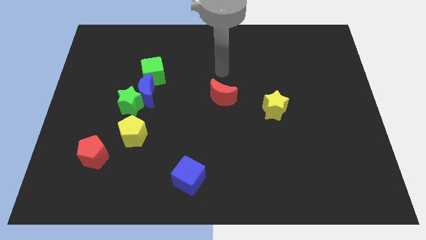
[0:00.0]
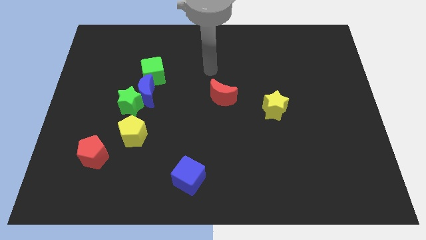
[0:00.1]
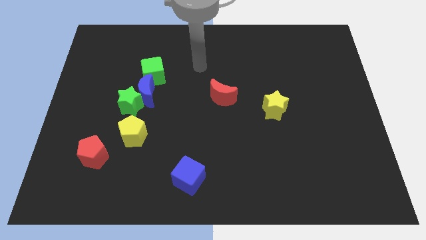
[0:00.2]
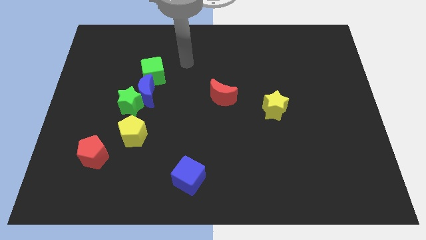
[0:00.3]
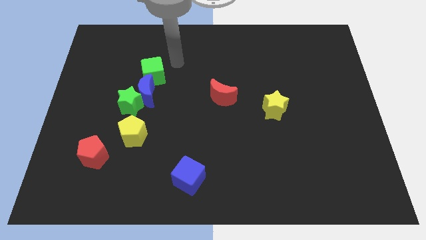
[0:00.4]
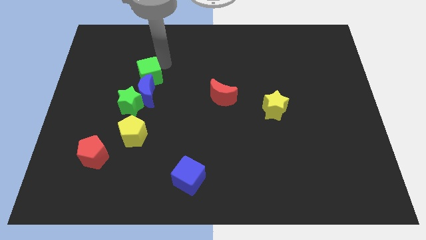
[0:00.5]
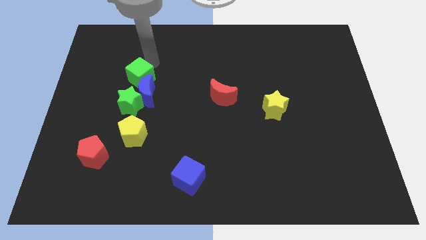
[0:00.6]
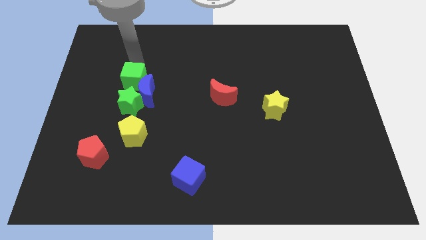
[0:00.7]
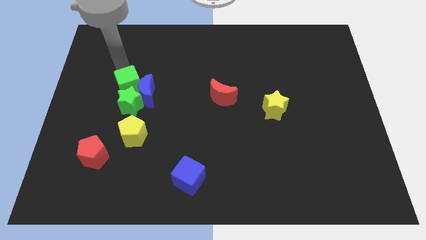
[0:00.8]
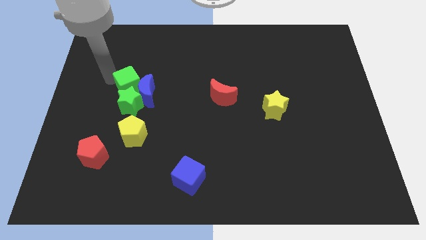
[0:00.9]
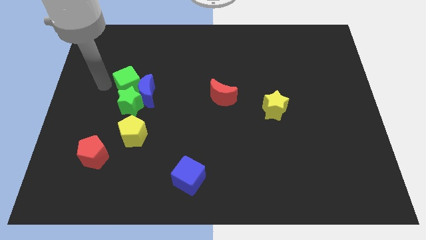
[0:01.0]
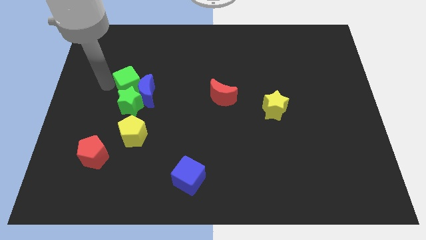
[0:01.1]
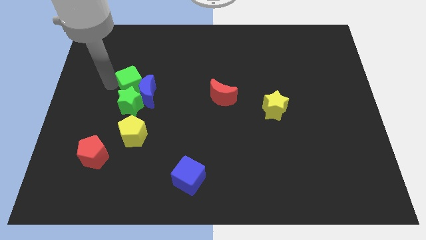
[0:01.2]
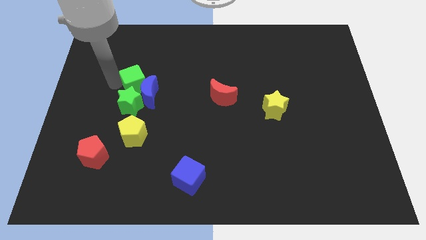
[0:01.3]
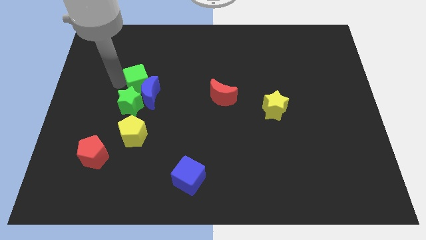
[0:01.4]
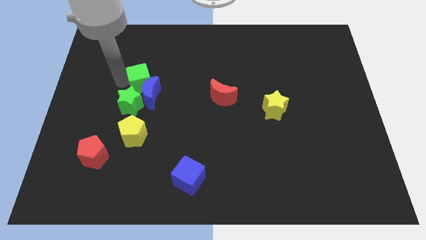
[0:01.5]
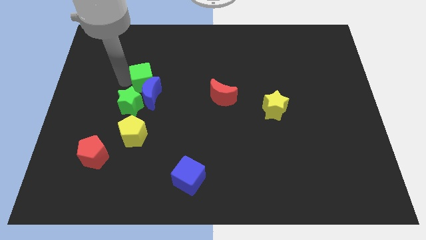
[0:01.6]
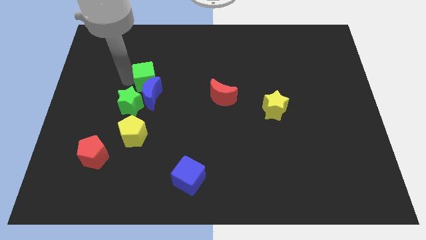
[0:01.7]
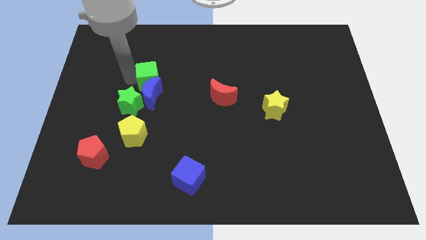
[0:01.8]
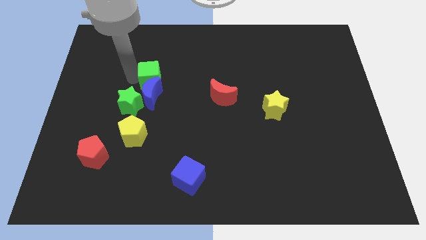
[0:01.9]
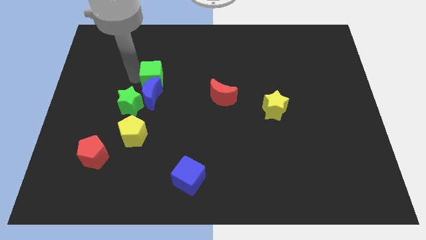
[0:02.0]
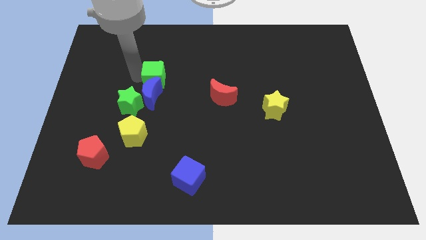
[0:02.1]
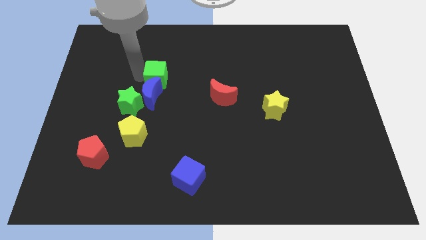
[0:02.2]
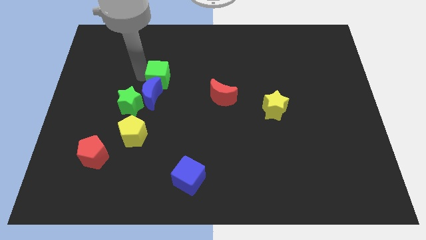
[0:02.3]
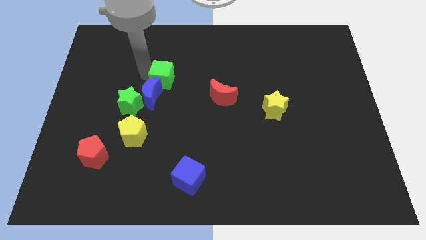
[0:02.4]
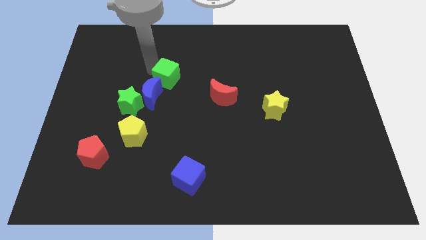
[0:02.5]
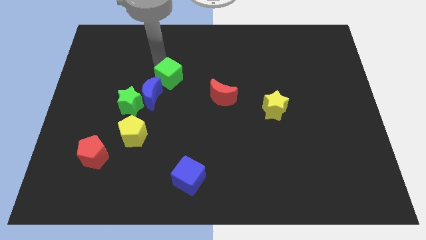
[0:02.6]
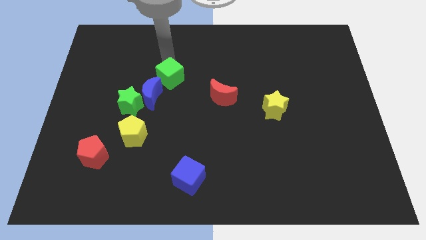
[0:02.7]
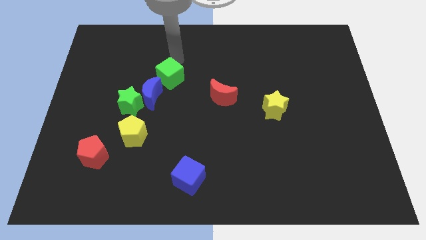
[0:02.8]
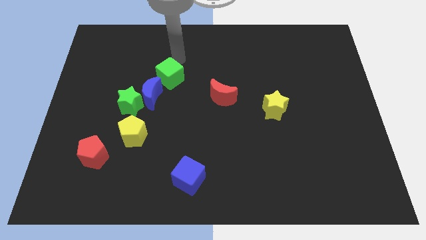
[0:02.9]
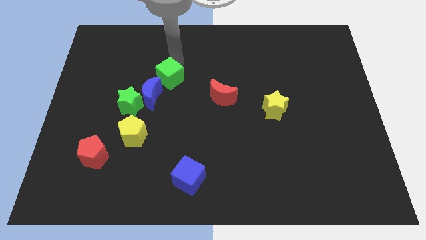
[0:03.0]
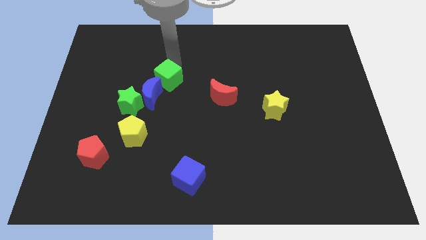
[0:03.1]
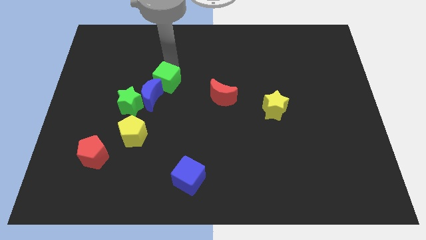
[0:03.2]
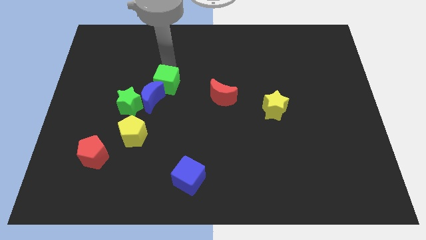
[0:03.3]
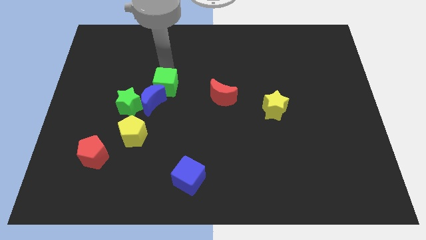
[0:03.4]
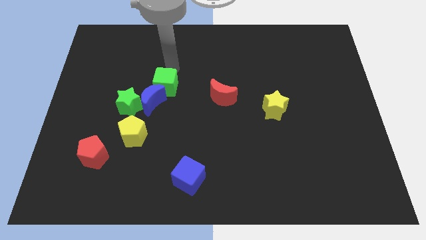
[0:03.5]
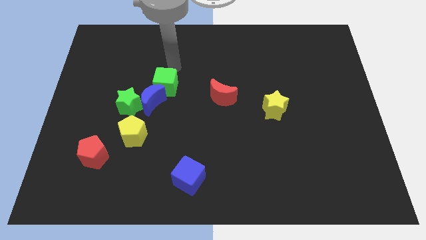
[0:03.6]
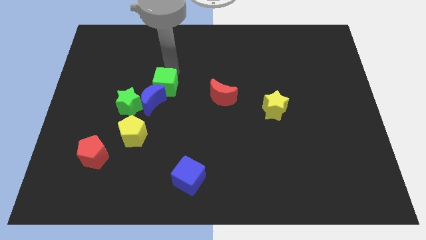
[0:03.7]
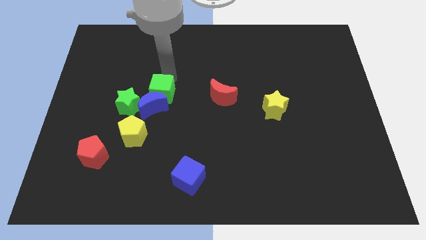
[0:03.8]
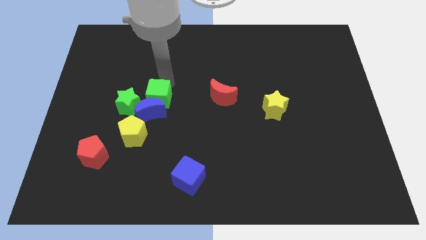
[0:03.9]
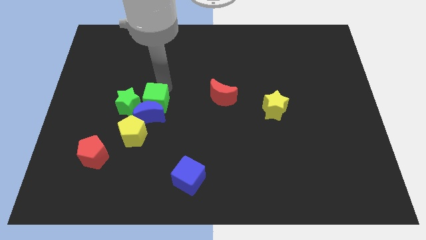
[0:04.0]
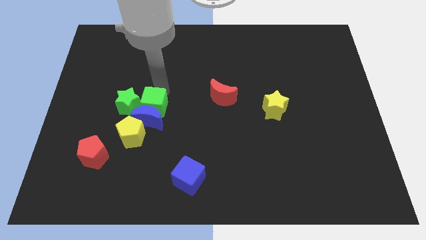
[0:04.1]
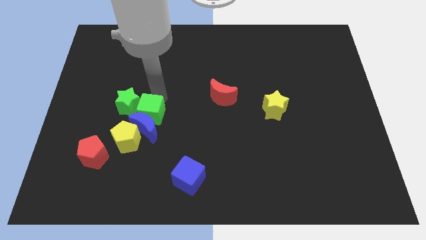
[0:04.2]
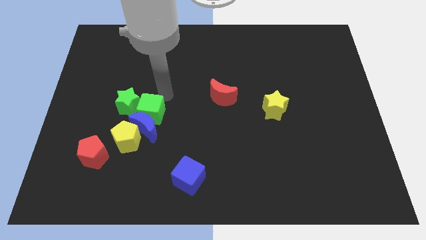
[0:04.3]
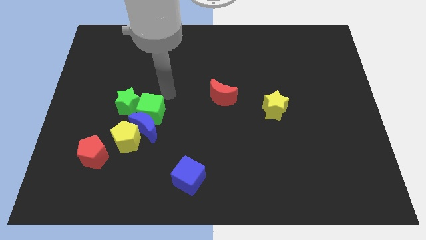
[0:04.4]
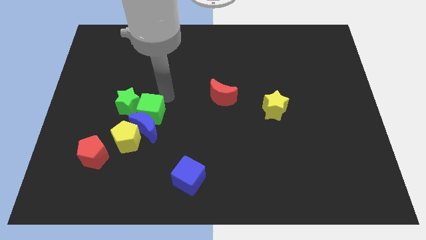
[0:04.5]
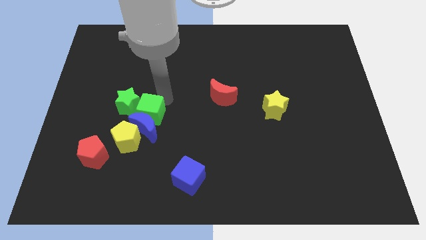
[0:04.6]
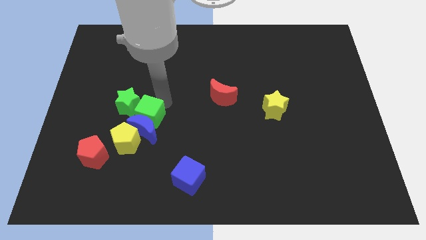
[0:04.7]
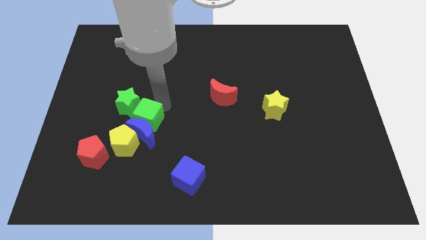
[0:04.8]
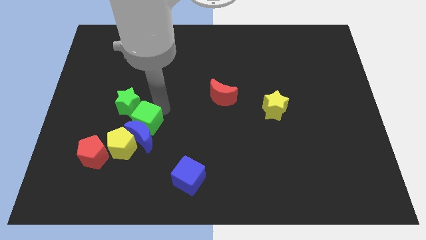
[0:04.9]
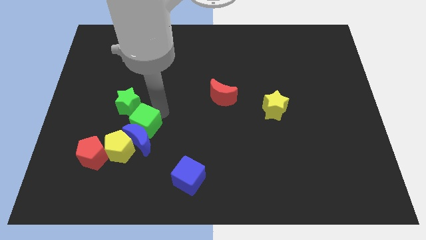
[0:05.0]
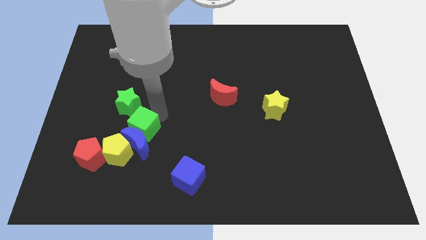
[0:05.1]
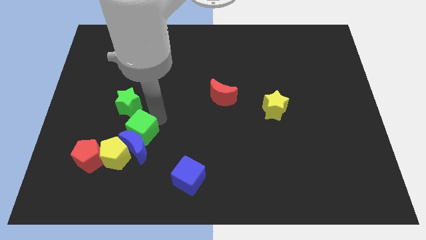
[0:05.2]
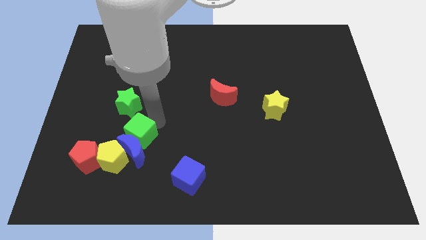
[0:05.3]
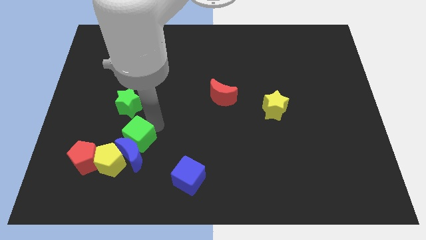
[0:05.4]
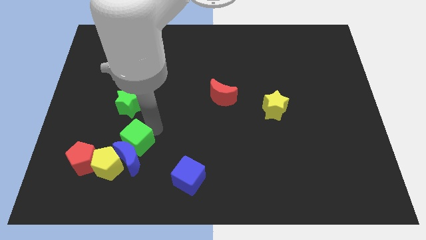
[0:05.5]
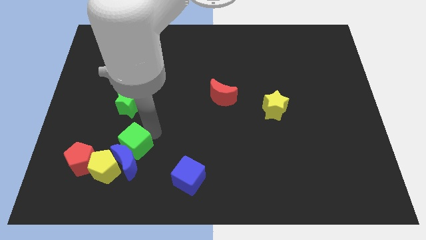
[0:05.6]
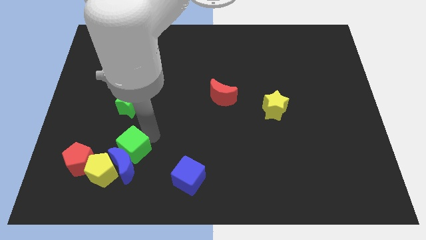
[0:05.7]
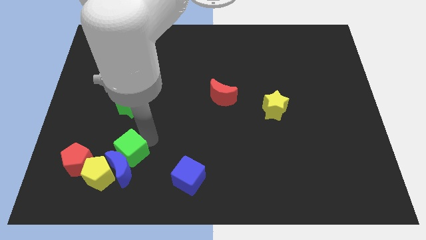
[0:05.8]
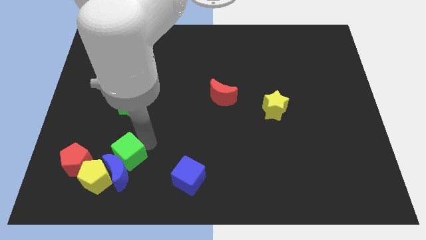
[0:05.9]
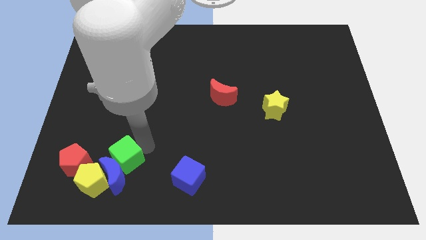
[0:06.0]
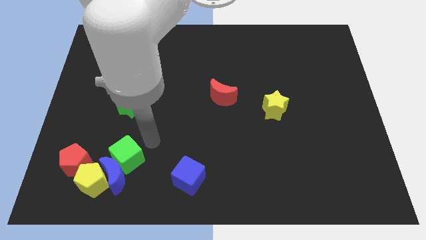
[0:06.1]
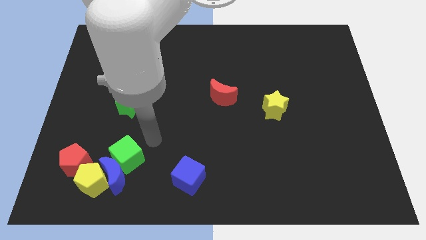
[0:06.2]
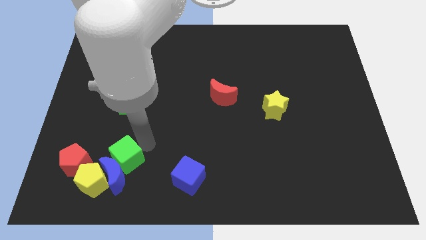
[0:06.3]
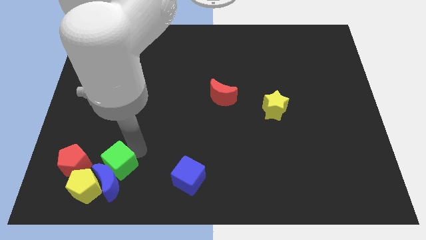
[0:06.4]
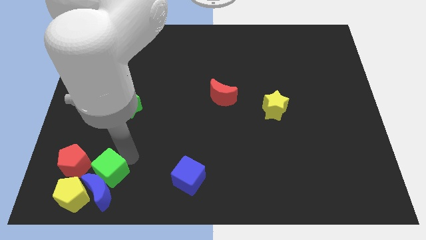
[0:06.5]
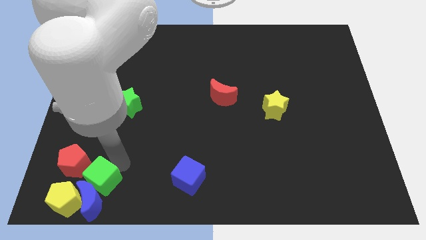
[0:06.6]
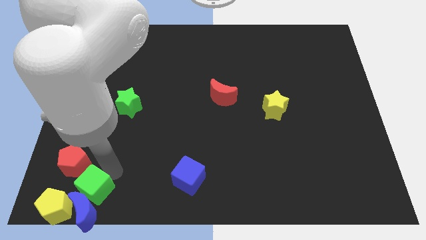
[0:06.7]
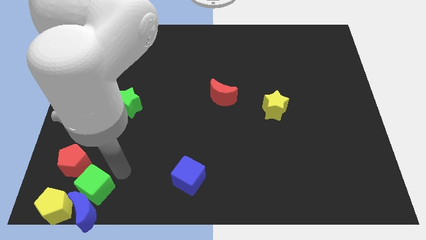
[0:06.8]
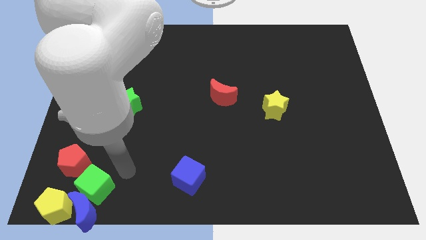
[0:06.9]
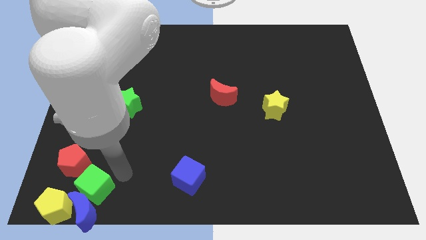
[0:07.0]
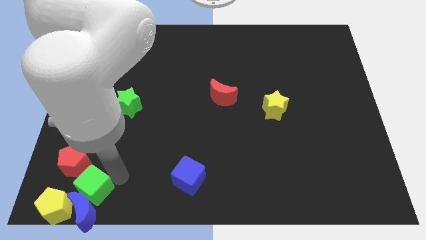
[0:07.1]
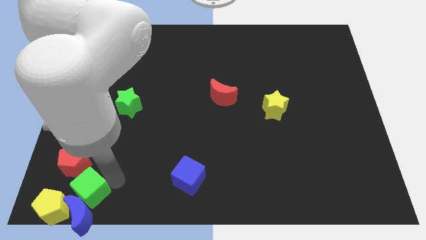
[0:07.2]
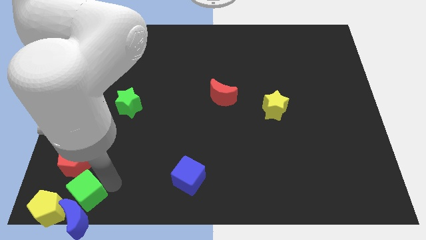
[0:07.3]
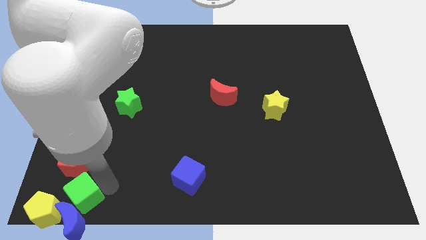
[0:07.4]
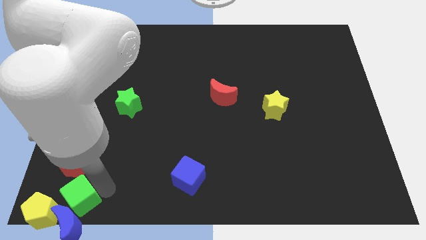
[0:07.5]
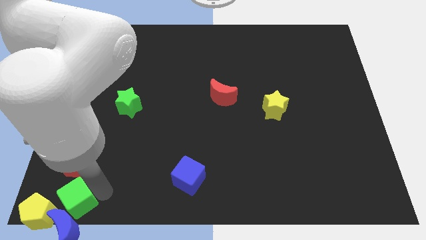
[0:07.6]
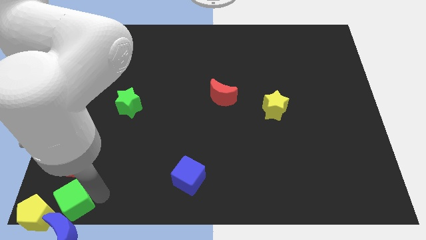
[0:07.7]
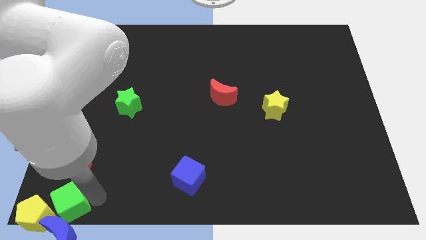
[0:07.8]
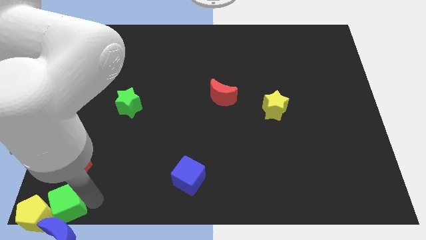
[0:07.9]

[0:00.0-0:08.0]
slide the green cube next to the yellow pentagon

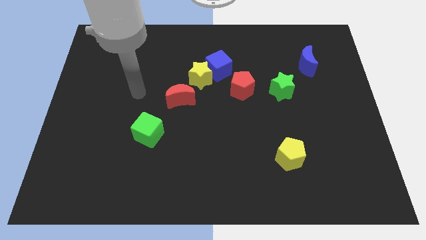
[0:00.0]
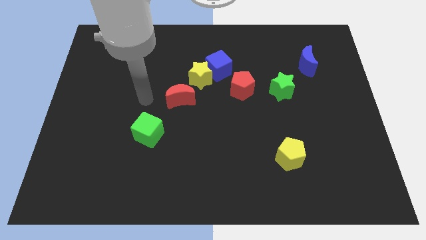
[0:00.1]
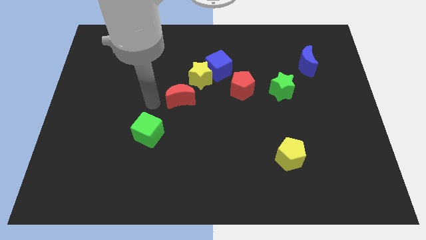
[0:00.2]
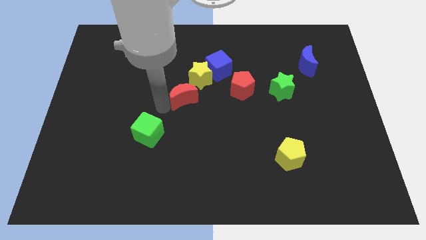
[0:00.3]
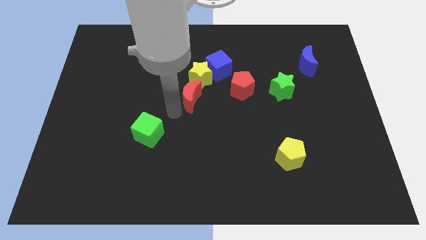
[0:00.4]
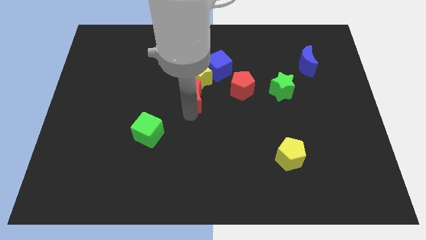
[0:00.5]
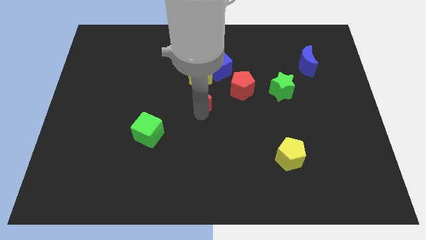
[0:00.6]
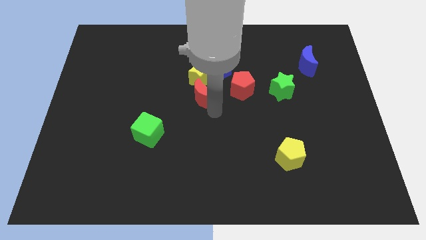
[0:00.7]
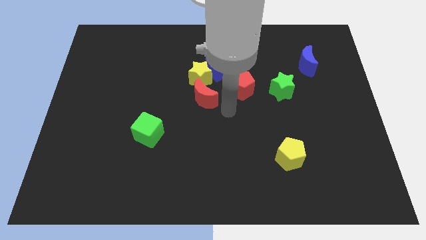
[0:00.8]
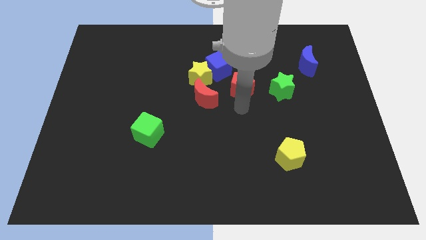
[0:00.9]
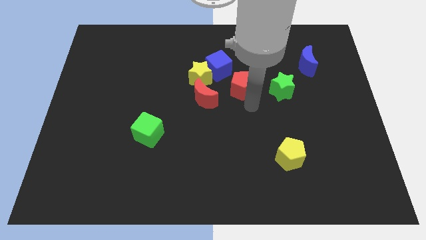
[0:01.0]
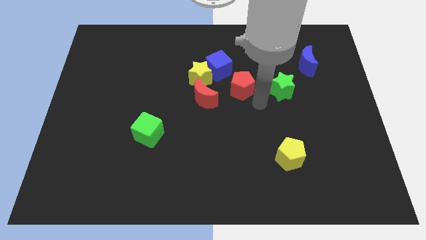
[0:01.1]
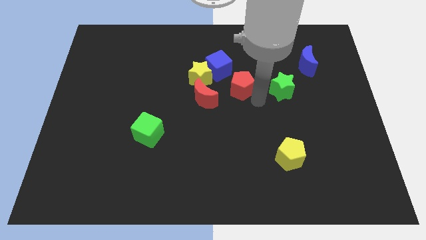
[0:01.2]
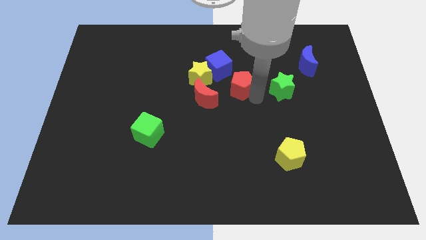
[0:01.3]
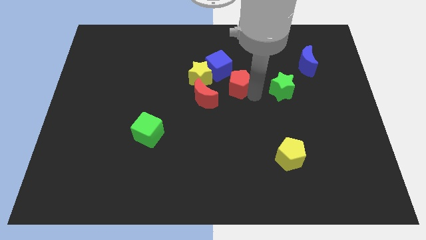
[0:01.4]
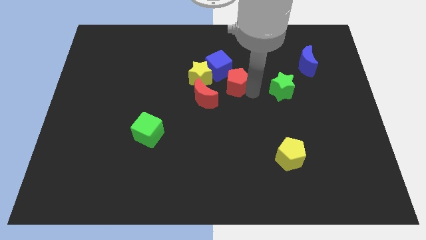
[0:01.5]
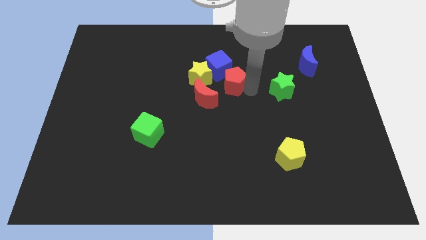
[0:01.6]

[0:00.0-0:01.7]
slide the red pentagon to the blue cube
